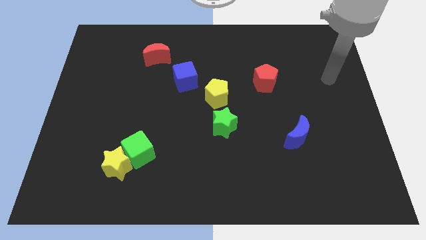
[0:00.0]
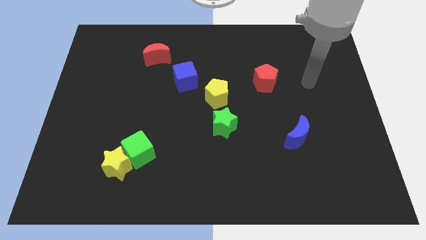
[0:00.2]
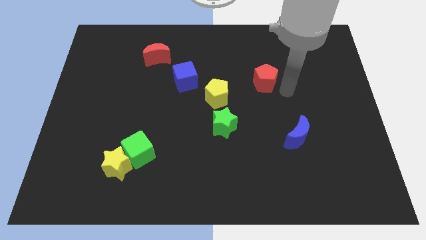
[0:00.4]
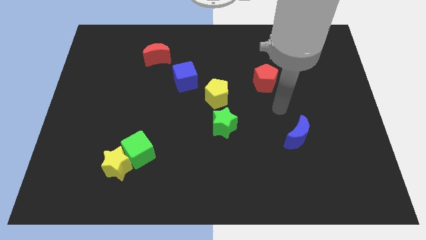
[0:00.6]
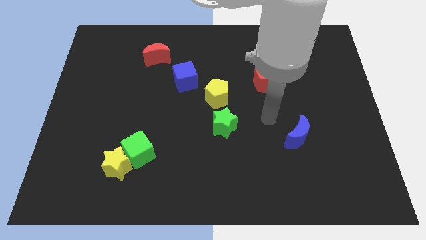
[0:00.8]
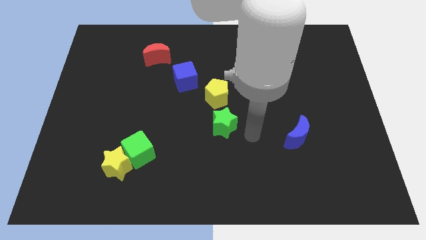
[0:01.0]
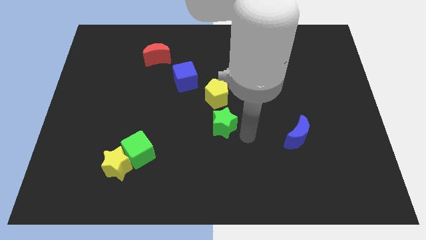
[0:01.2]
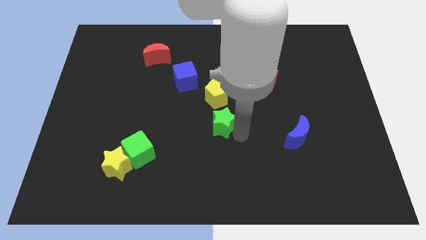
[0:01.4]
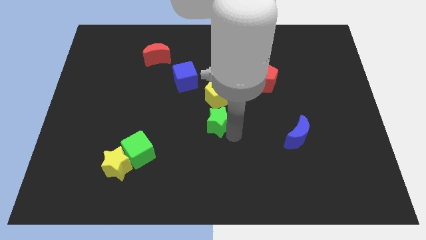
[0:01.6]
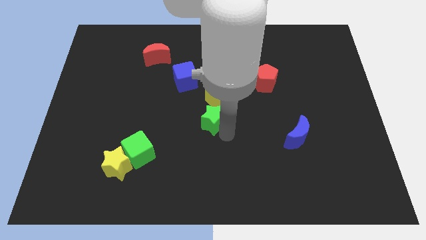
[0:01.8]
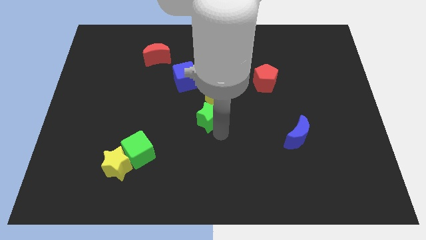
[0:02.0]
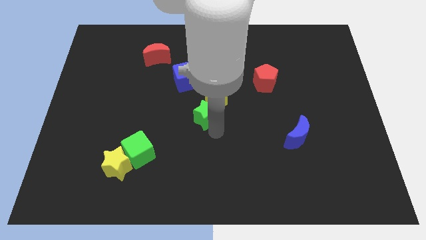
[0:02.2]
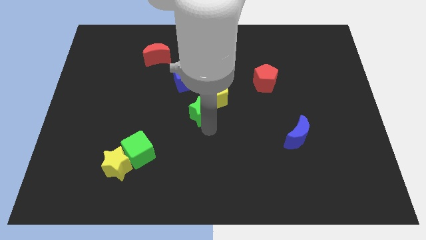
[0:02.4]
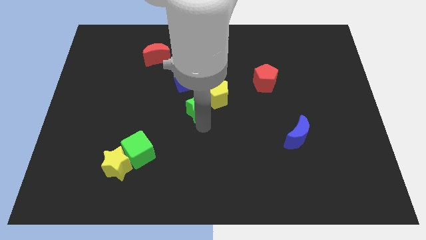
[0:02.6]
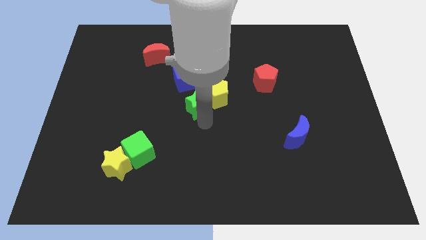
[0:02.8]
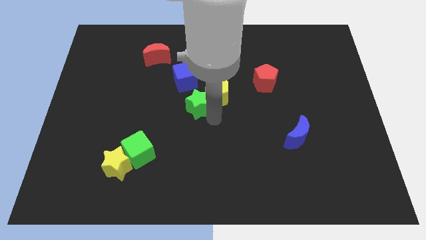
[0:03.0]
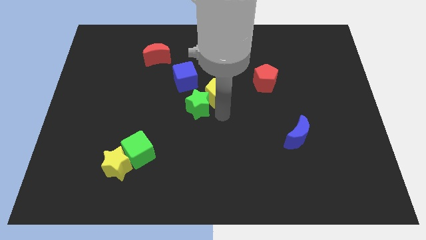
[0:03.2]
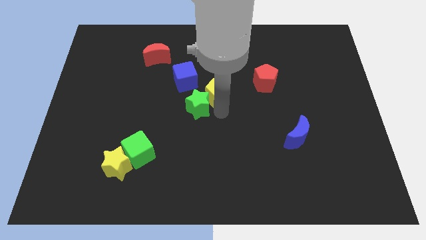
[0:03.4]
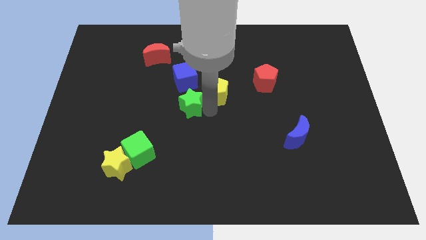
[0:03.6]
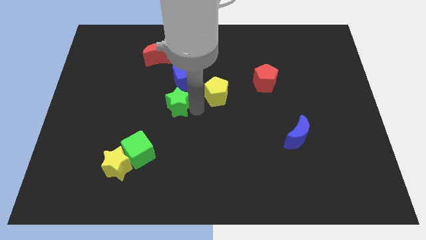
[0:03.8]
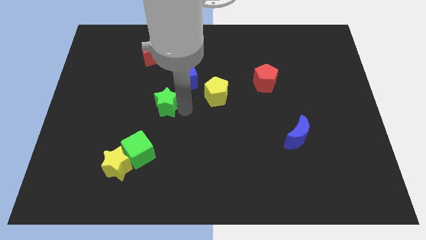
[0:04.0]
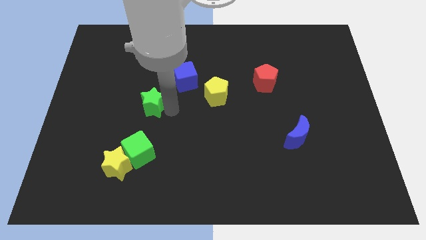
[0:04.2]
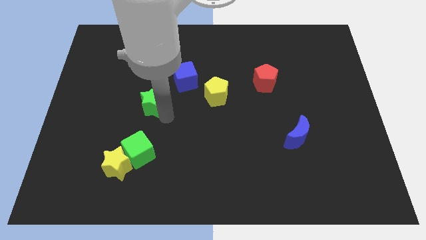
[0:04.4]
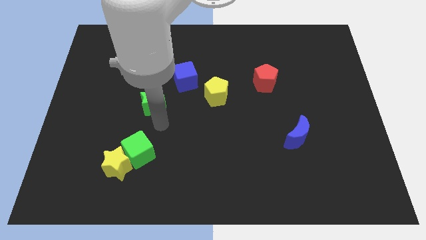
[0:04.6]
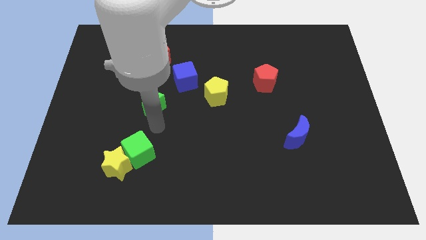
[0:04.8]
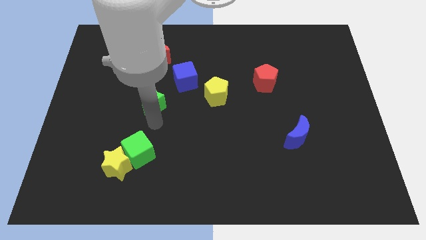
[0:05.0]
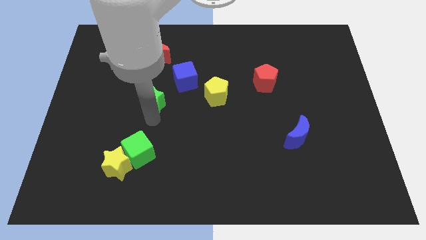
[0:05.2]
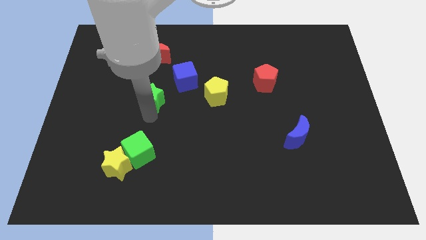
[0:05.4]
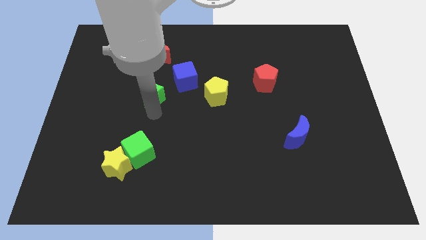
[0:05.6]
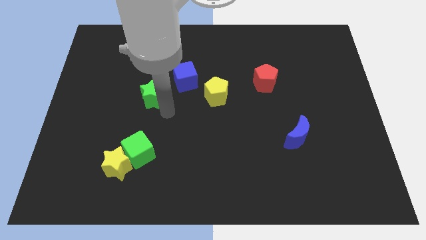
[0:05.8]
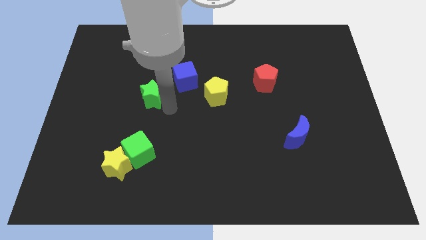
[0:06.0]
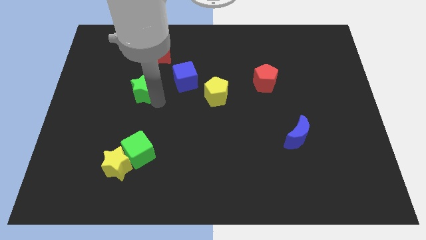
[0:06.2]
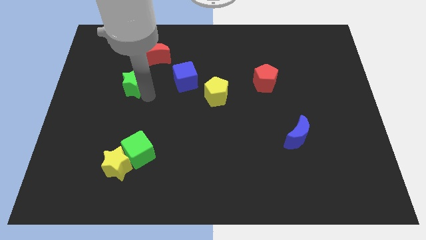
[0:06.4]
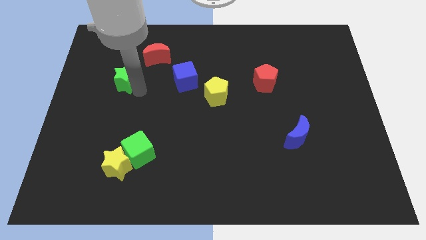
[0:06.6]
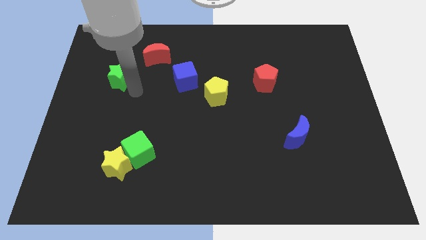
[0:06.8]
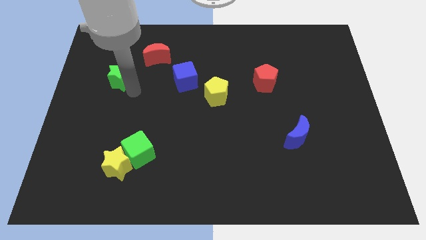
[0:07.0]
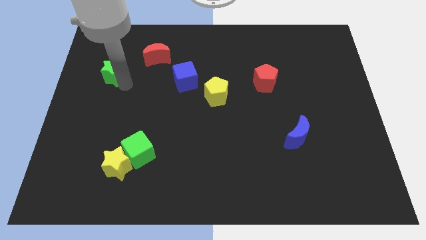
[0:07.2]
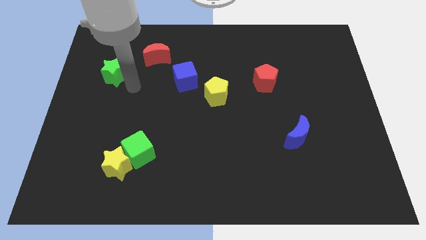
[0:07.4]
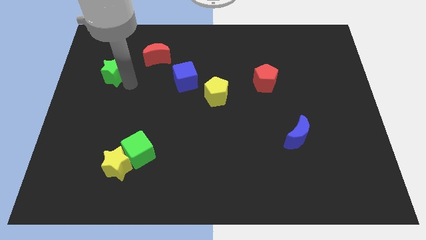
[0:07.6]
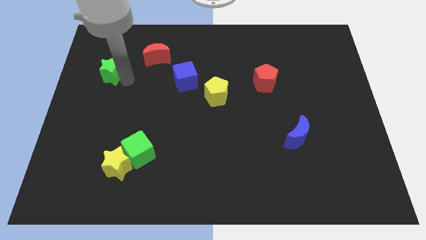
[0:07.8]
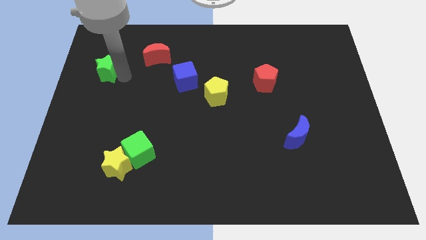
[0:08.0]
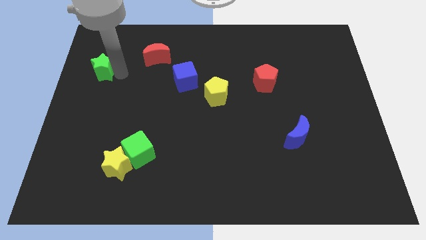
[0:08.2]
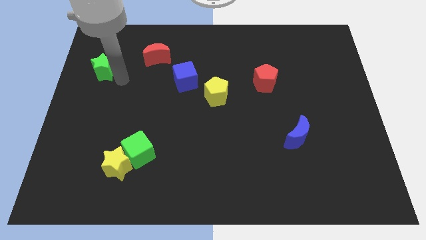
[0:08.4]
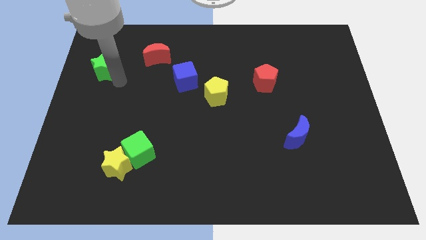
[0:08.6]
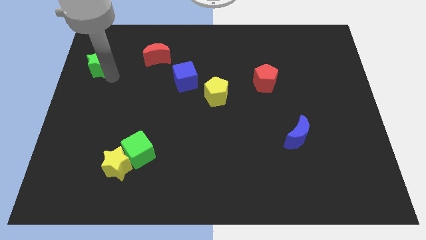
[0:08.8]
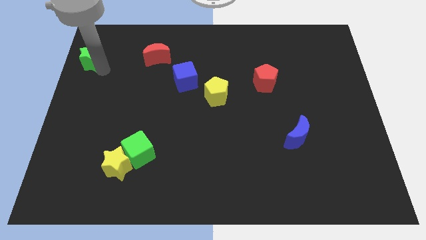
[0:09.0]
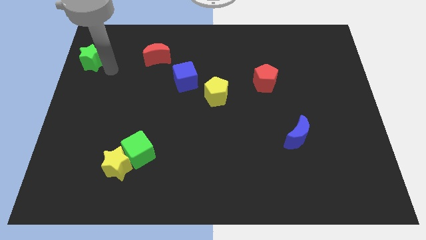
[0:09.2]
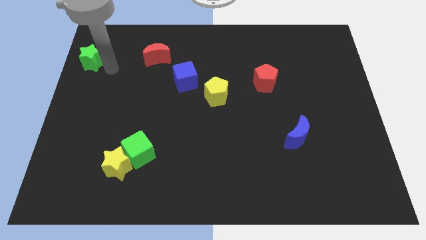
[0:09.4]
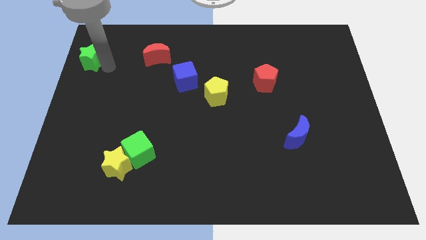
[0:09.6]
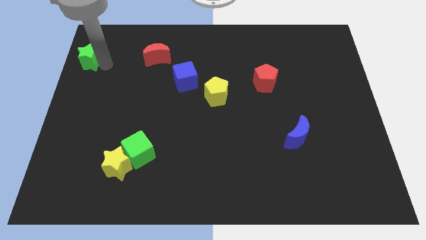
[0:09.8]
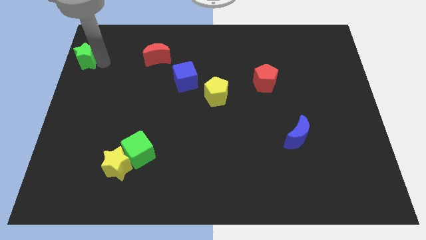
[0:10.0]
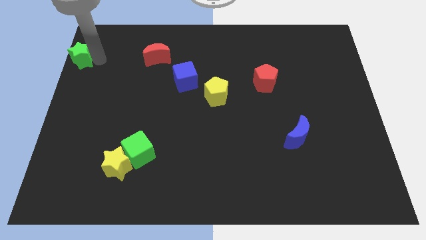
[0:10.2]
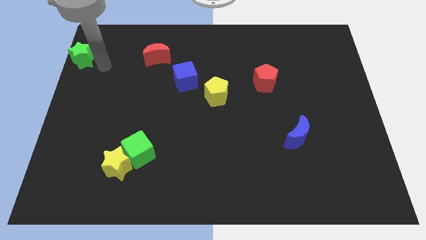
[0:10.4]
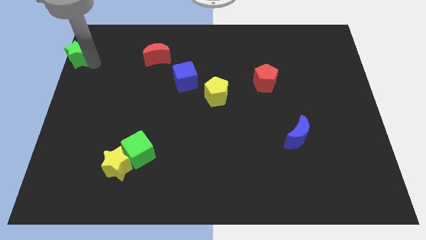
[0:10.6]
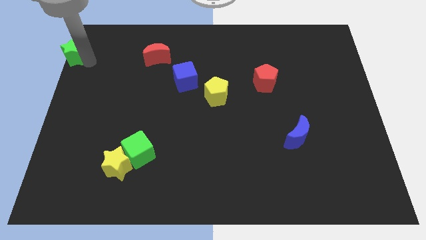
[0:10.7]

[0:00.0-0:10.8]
slide the green star to the upper left corner

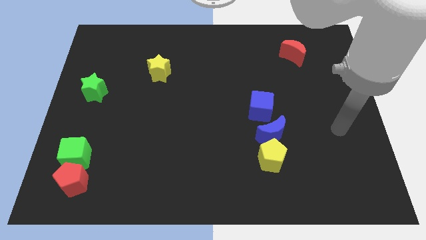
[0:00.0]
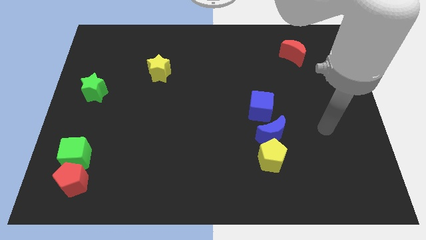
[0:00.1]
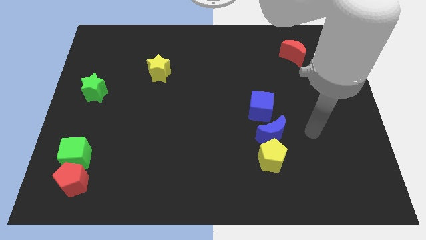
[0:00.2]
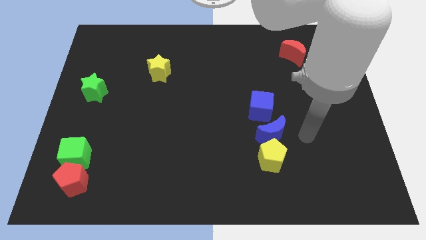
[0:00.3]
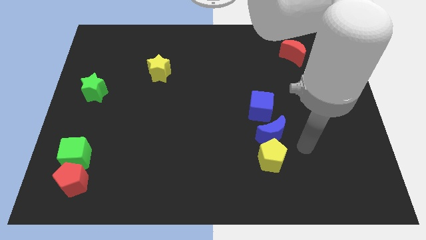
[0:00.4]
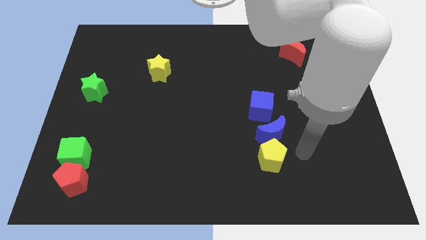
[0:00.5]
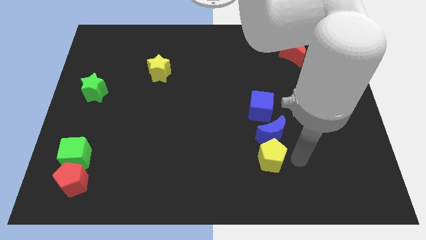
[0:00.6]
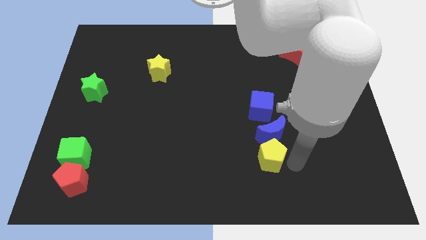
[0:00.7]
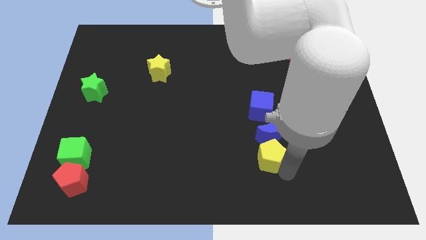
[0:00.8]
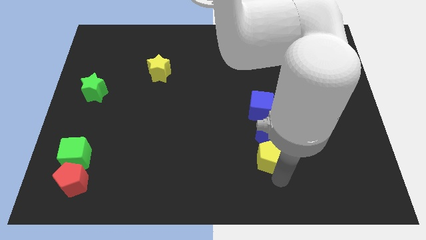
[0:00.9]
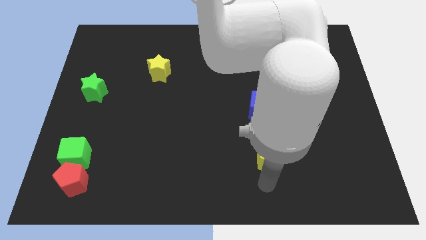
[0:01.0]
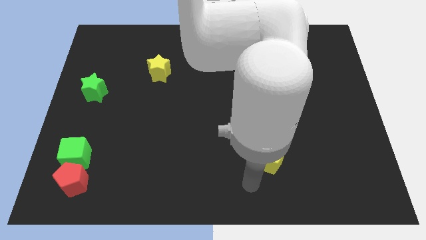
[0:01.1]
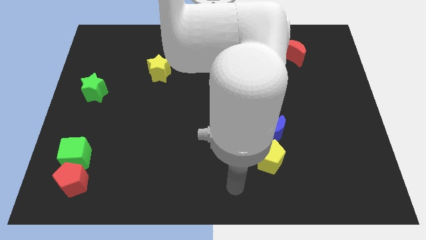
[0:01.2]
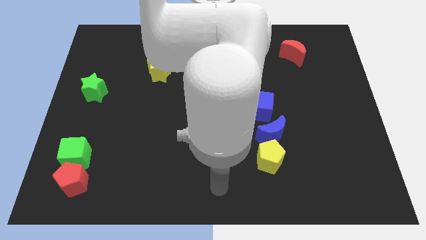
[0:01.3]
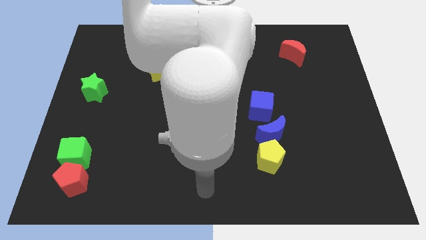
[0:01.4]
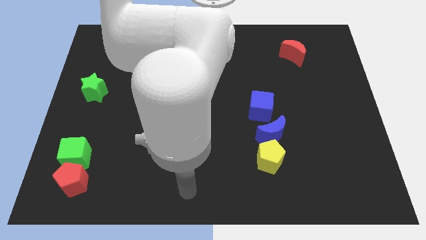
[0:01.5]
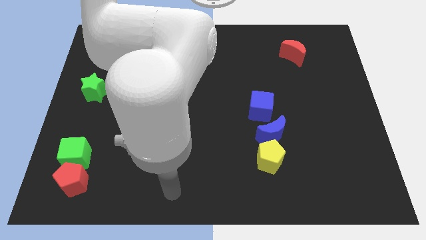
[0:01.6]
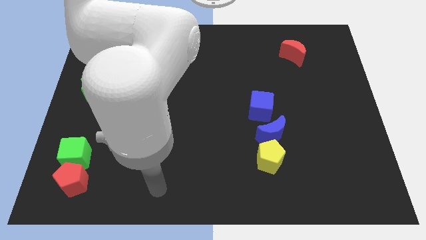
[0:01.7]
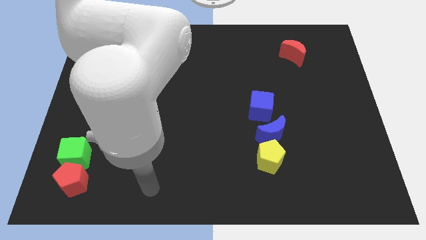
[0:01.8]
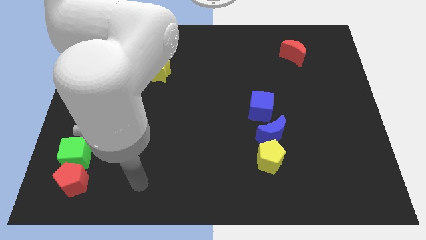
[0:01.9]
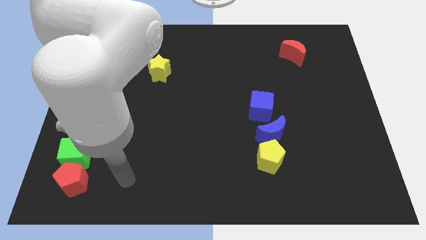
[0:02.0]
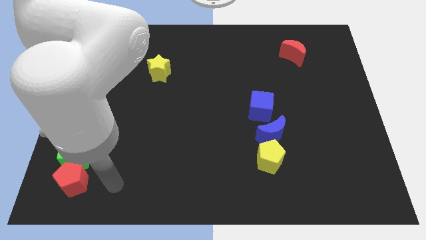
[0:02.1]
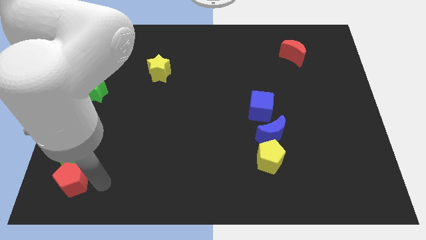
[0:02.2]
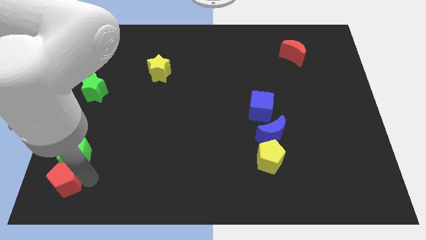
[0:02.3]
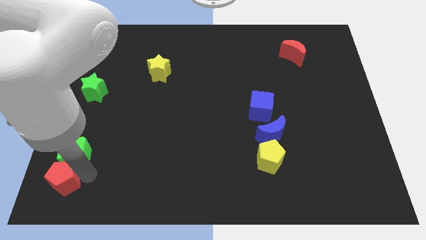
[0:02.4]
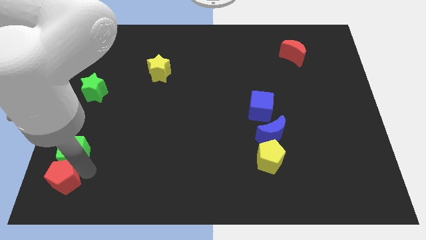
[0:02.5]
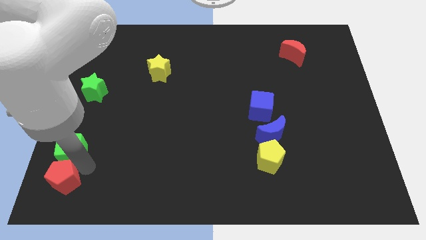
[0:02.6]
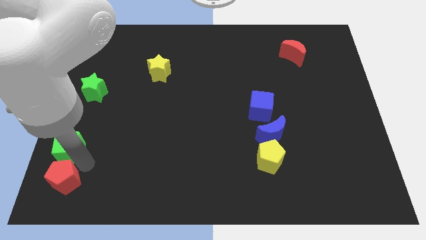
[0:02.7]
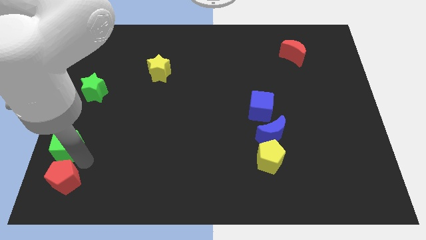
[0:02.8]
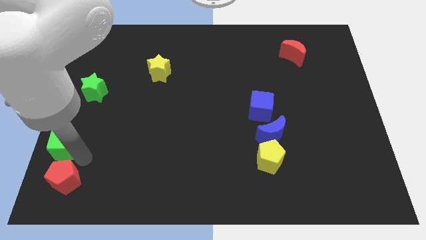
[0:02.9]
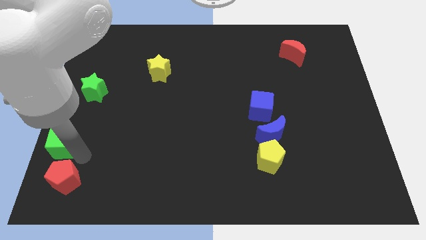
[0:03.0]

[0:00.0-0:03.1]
move the green cube to the left side
